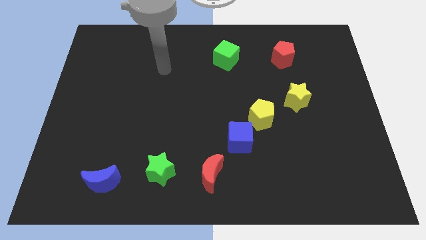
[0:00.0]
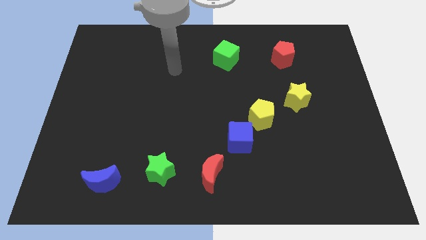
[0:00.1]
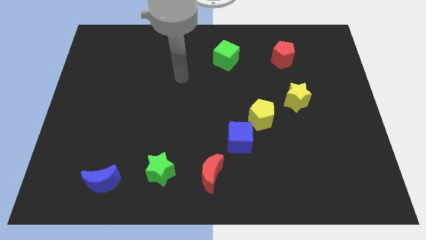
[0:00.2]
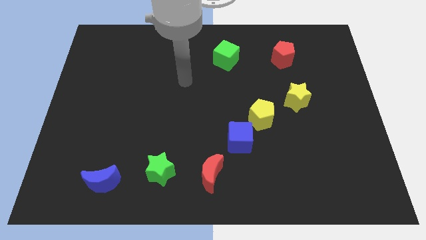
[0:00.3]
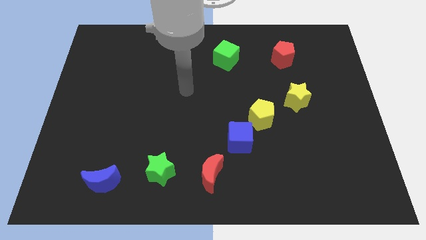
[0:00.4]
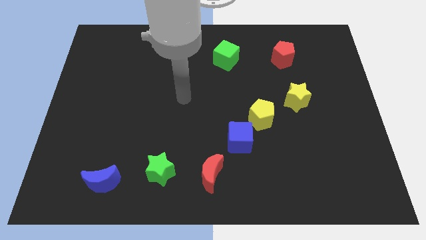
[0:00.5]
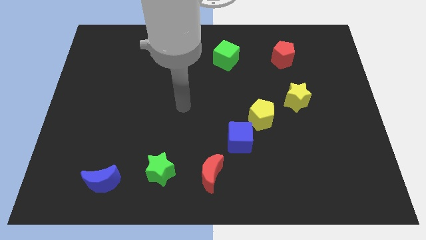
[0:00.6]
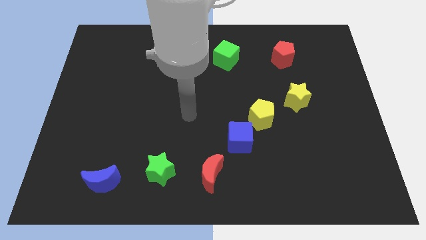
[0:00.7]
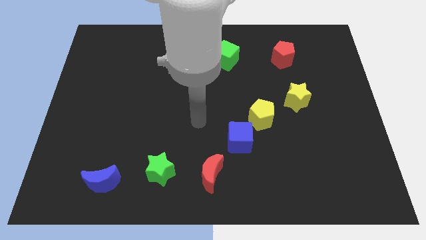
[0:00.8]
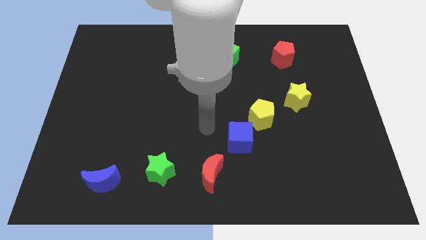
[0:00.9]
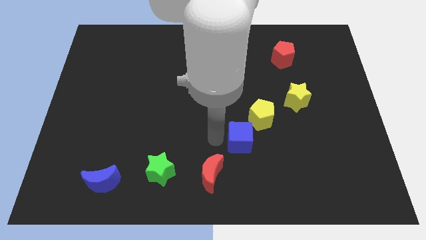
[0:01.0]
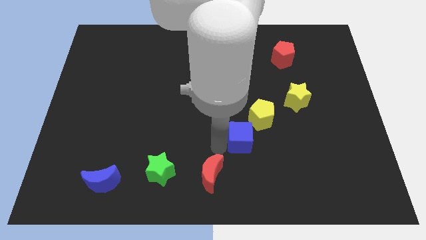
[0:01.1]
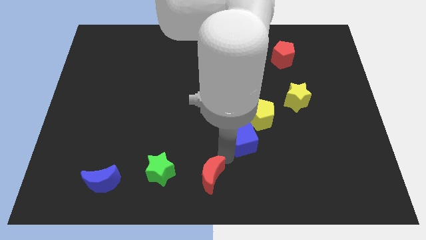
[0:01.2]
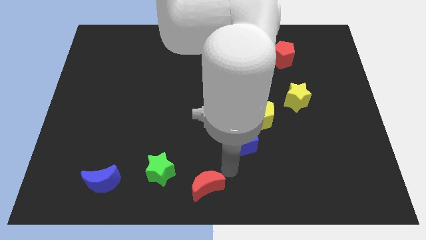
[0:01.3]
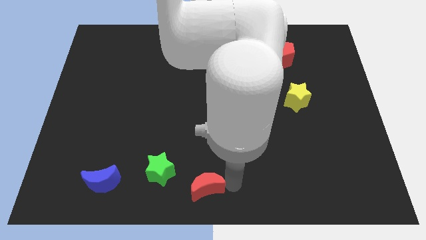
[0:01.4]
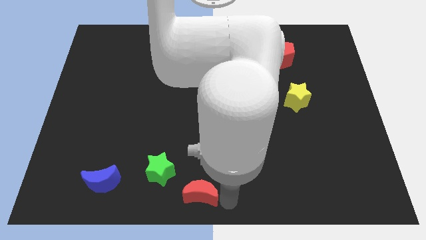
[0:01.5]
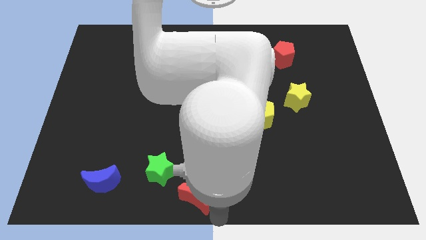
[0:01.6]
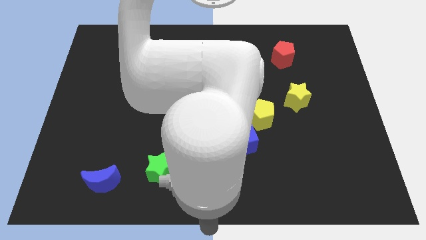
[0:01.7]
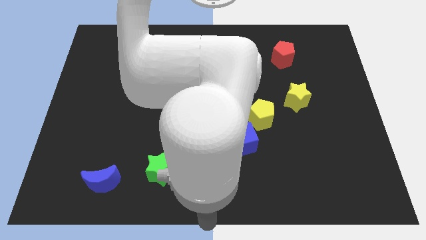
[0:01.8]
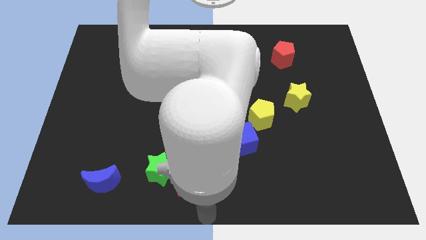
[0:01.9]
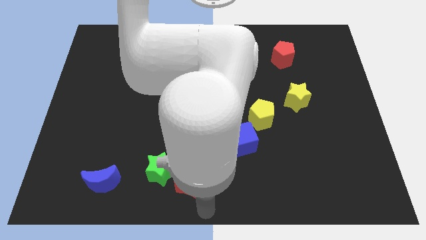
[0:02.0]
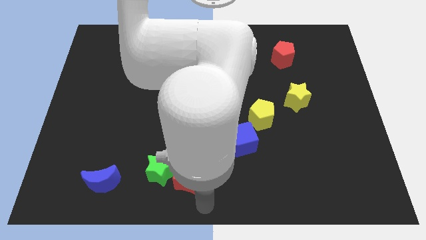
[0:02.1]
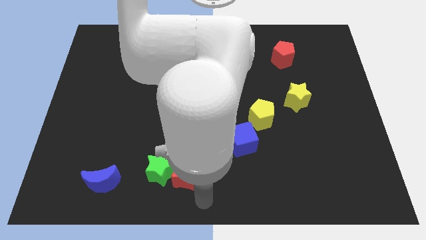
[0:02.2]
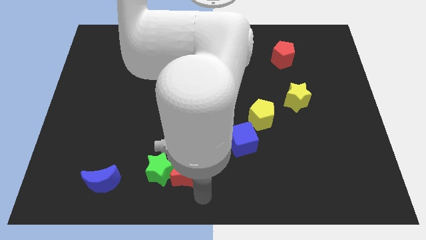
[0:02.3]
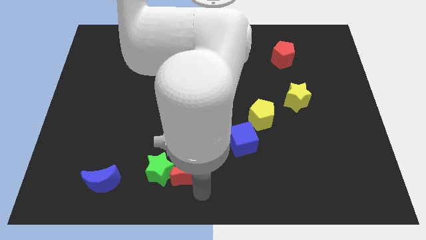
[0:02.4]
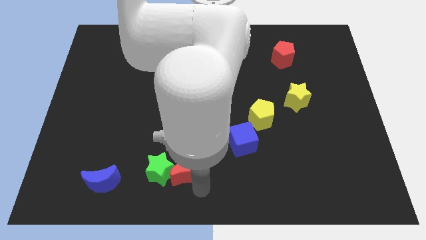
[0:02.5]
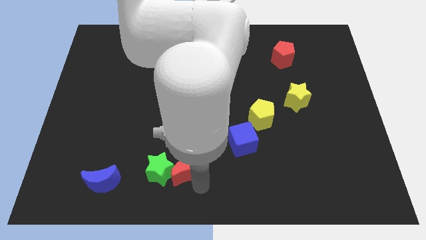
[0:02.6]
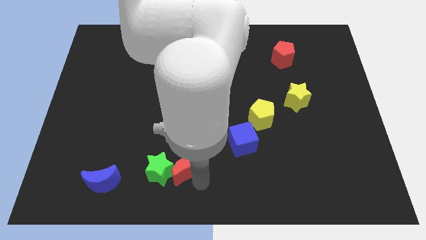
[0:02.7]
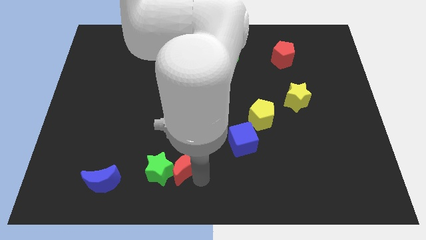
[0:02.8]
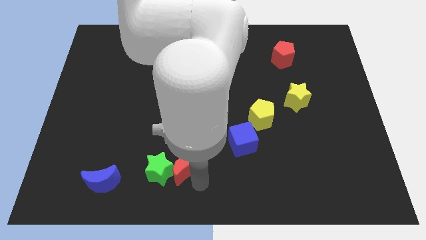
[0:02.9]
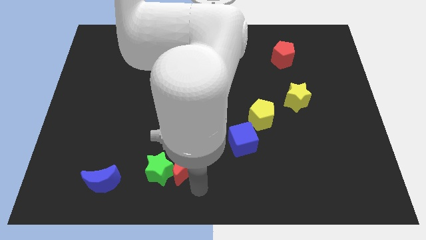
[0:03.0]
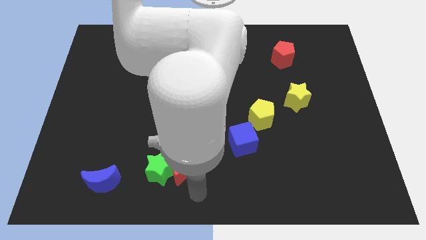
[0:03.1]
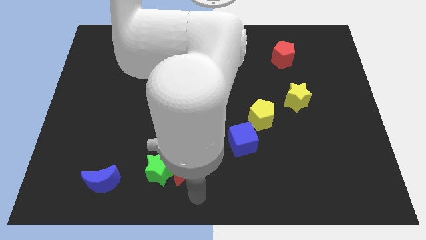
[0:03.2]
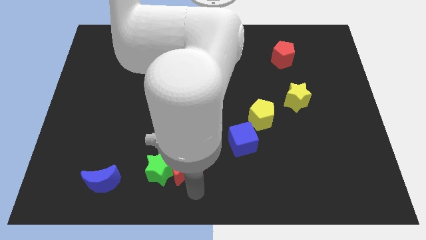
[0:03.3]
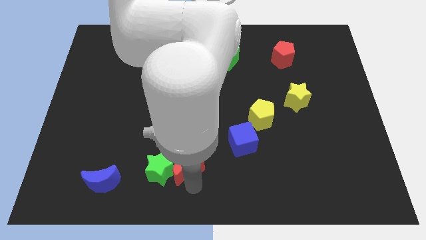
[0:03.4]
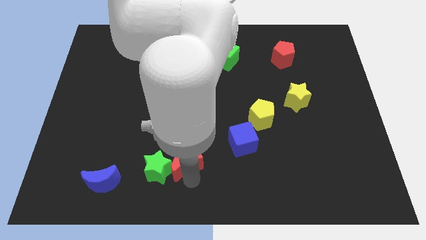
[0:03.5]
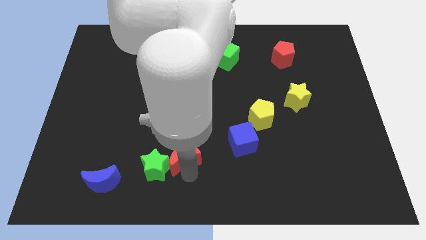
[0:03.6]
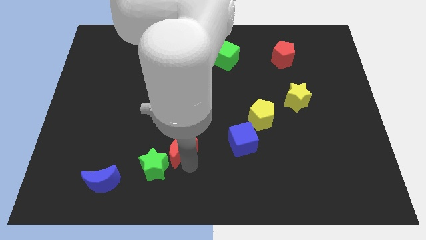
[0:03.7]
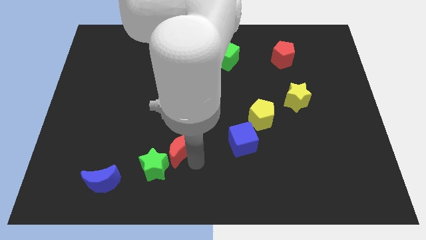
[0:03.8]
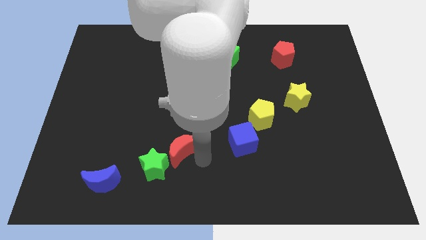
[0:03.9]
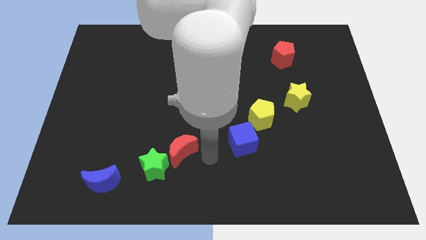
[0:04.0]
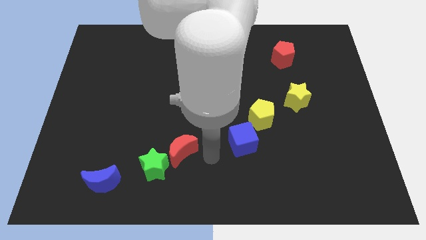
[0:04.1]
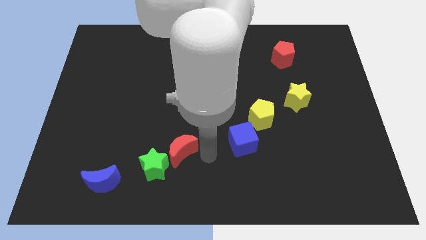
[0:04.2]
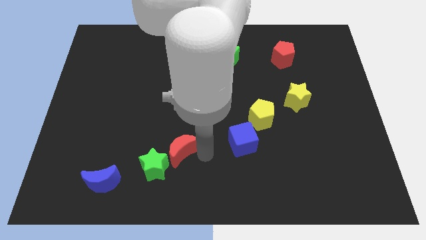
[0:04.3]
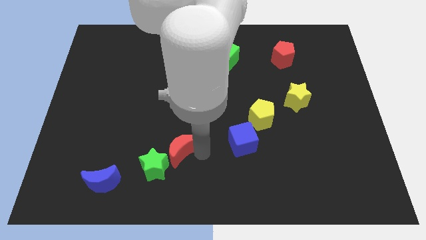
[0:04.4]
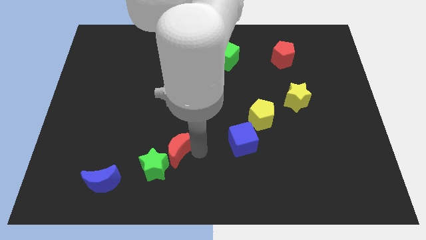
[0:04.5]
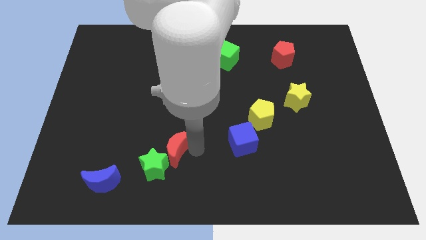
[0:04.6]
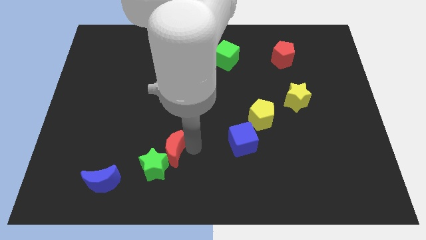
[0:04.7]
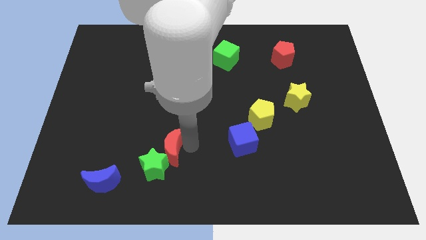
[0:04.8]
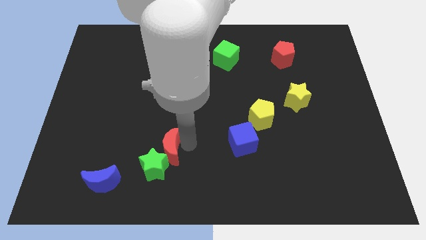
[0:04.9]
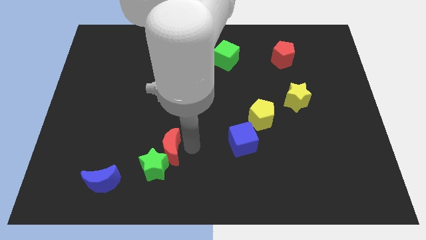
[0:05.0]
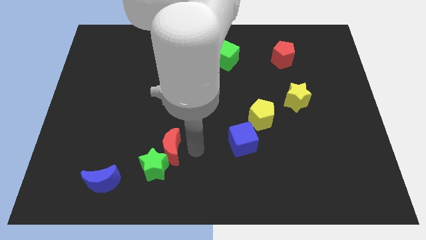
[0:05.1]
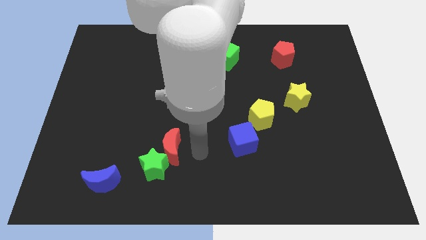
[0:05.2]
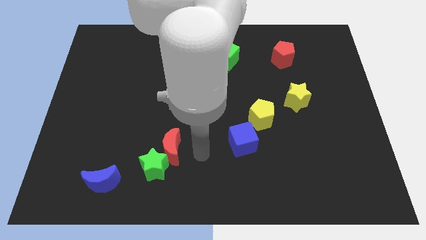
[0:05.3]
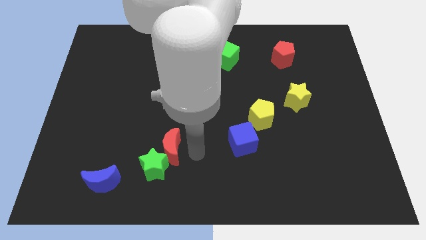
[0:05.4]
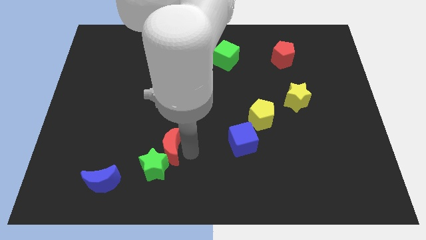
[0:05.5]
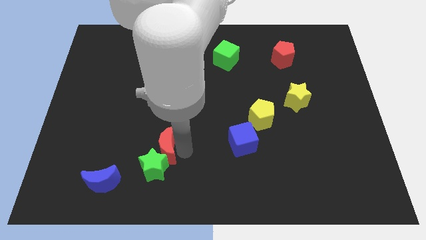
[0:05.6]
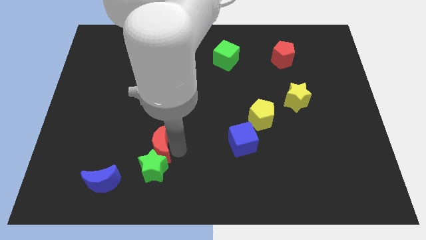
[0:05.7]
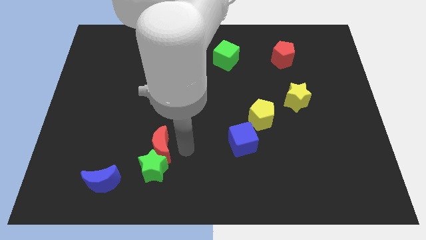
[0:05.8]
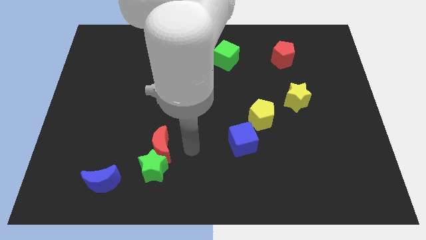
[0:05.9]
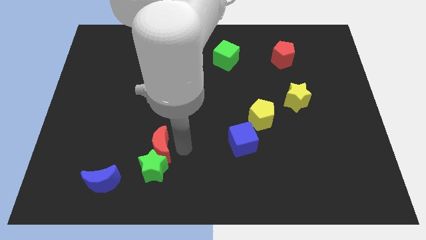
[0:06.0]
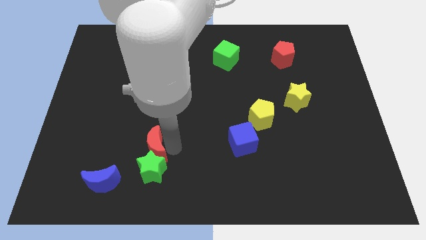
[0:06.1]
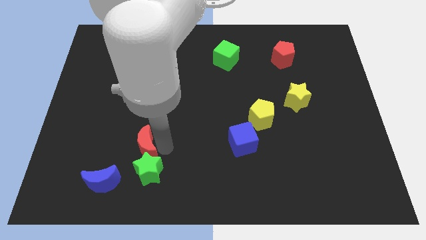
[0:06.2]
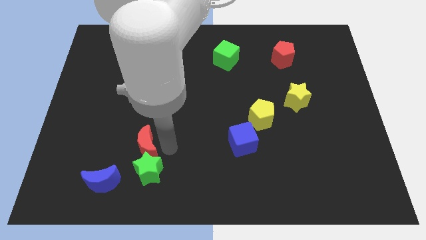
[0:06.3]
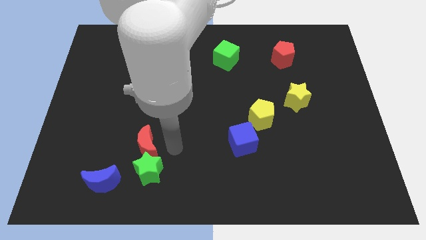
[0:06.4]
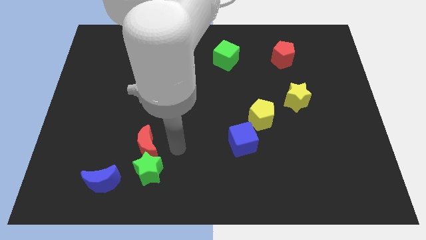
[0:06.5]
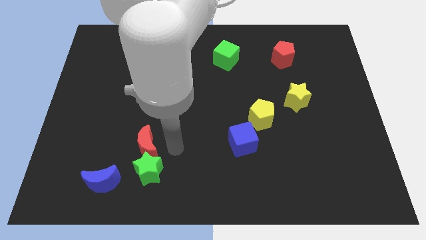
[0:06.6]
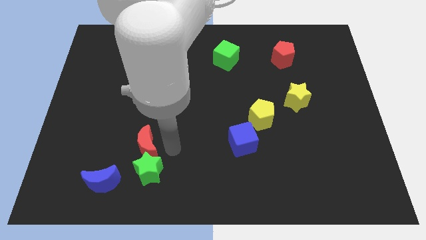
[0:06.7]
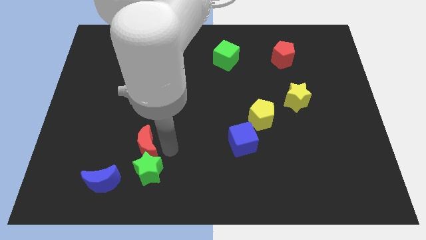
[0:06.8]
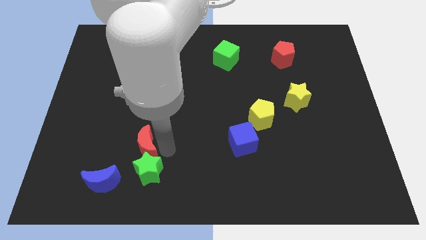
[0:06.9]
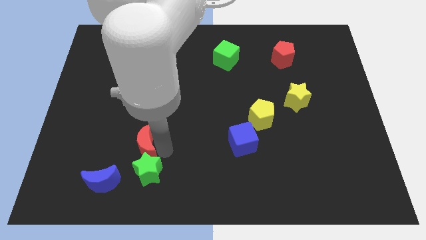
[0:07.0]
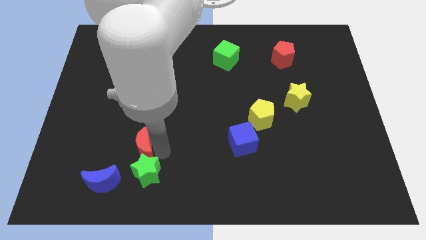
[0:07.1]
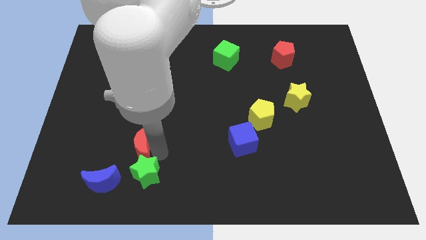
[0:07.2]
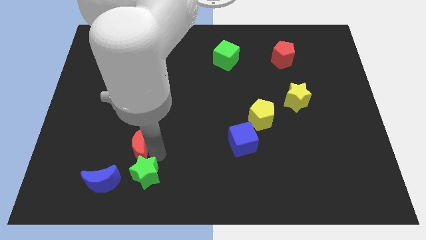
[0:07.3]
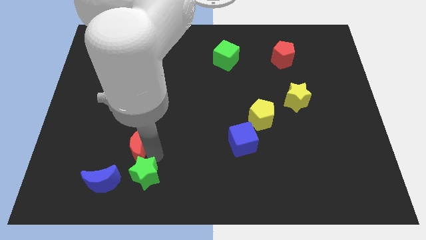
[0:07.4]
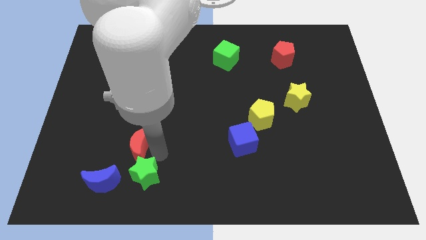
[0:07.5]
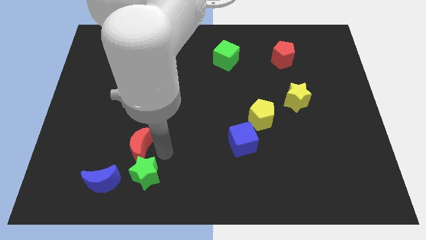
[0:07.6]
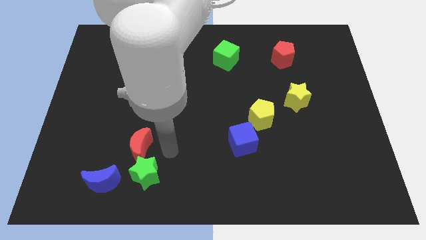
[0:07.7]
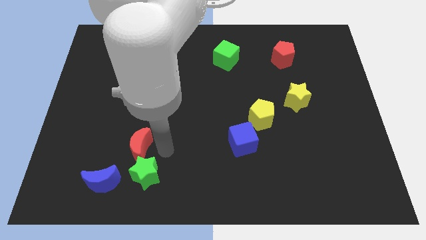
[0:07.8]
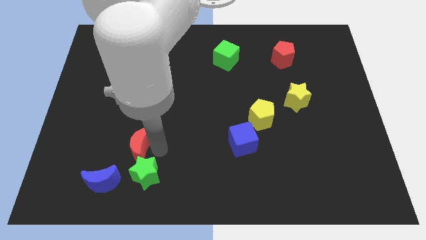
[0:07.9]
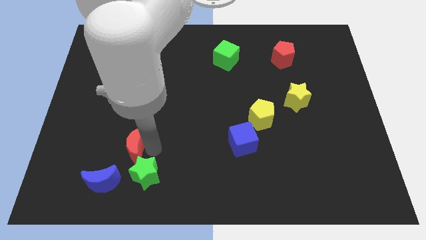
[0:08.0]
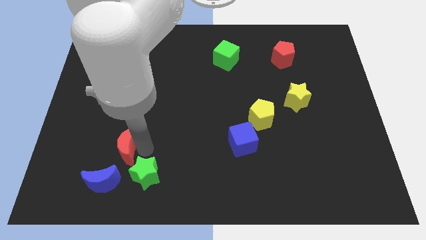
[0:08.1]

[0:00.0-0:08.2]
slide the red moon to the top side of the blue moon
